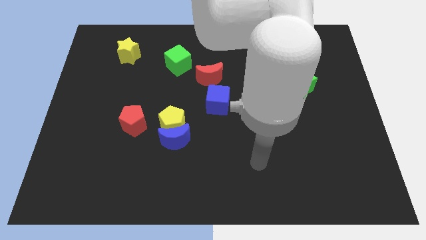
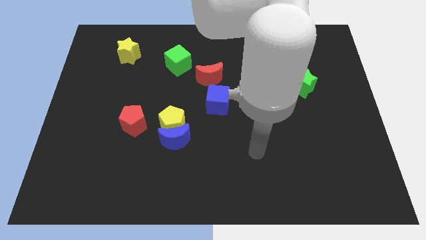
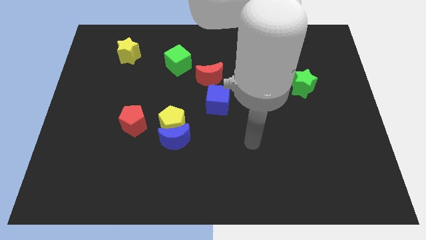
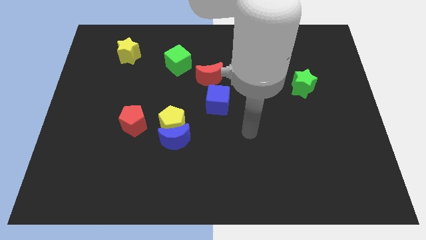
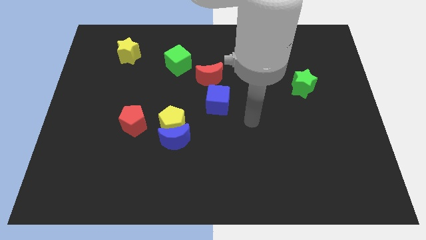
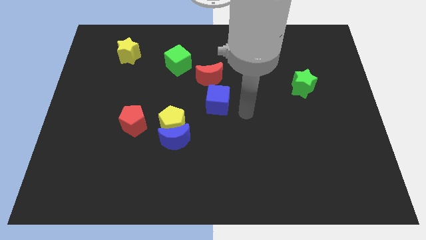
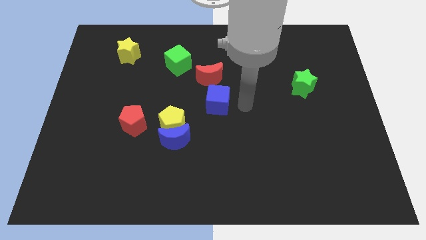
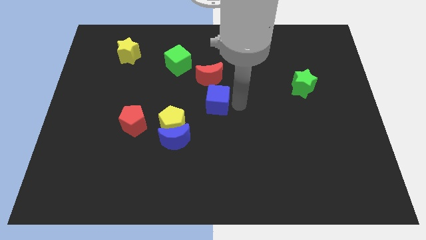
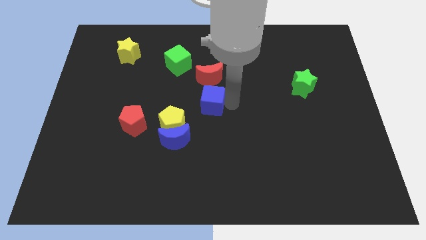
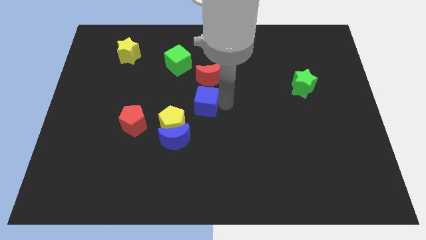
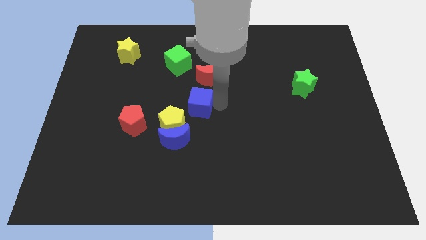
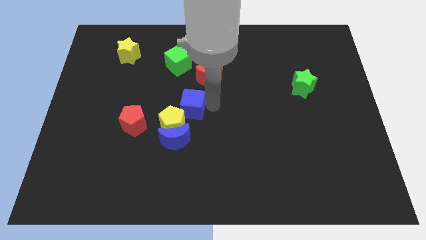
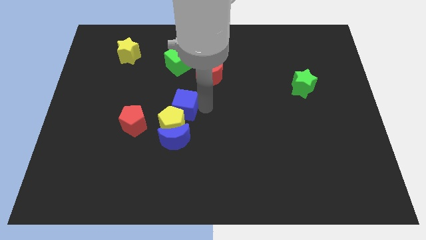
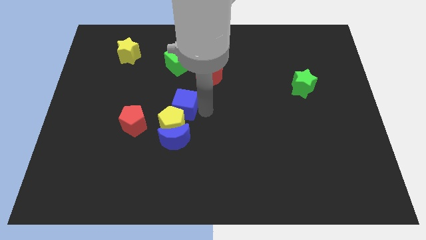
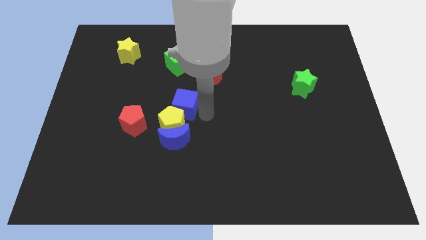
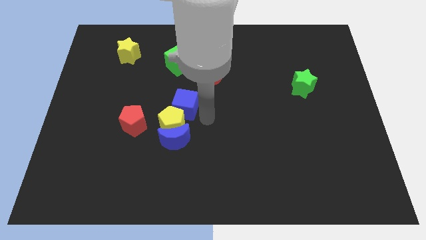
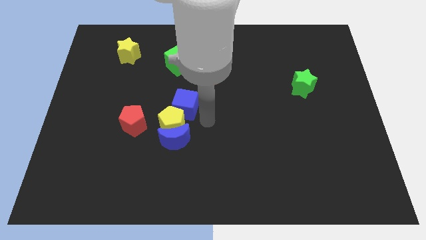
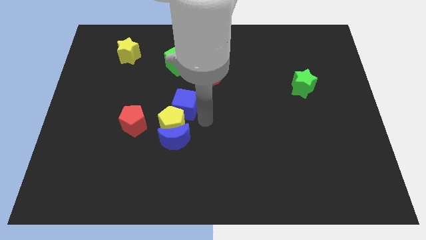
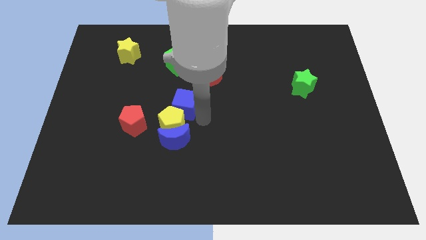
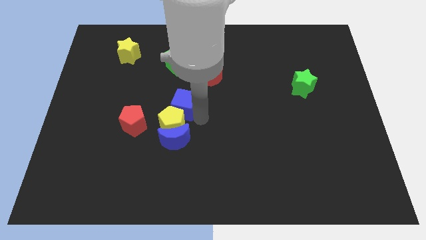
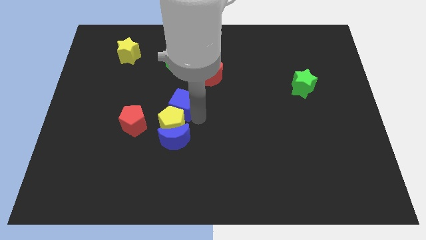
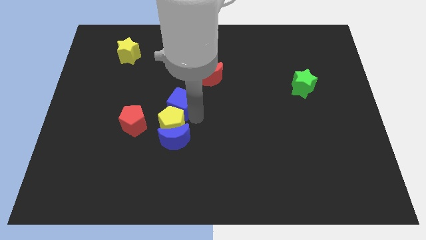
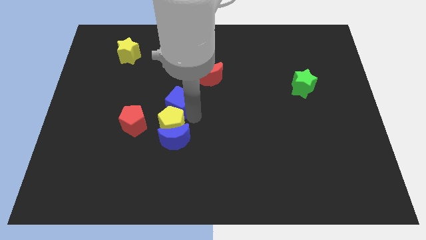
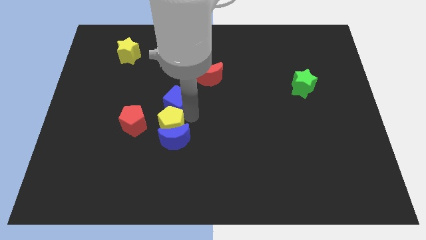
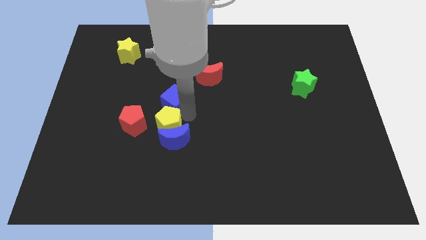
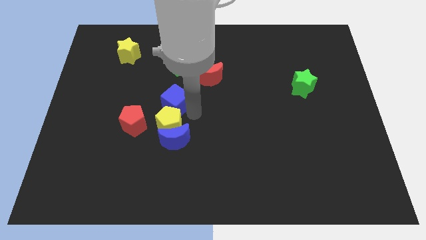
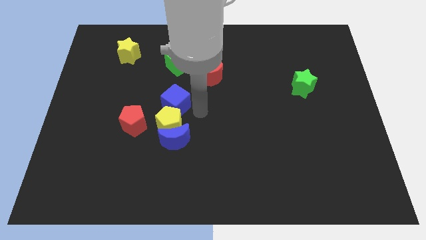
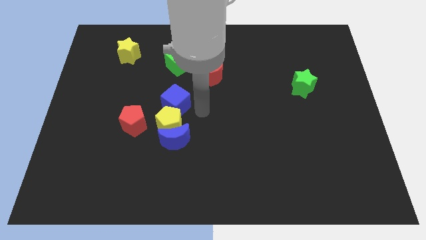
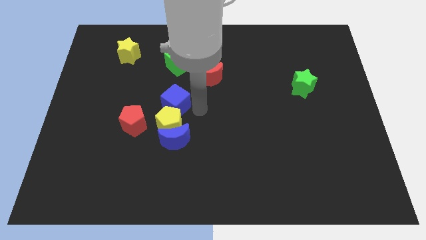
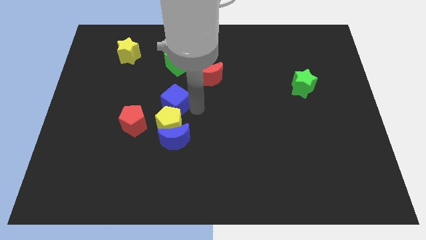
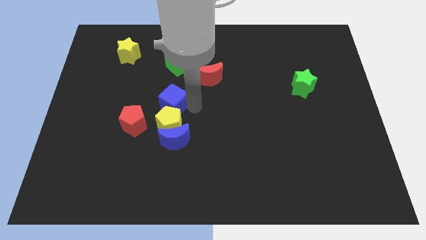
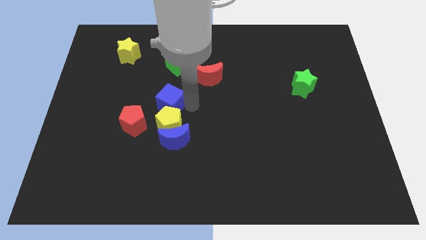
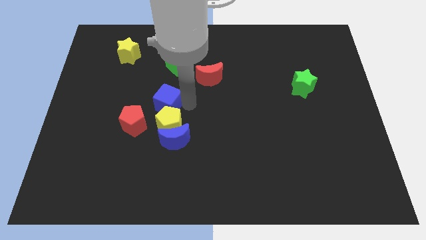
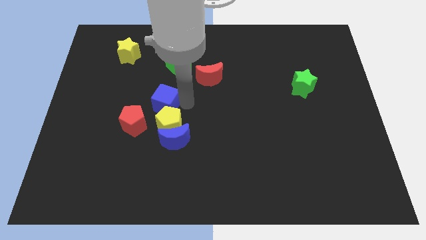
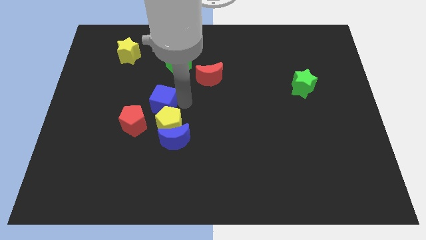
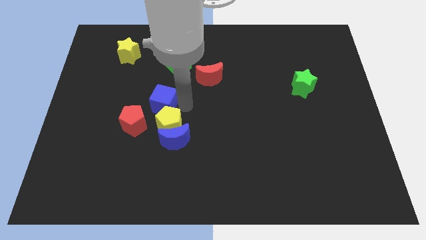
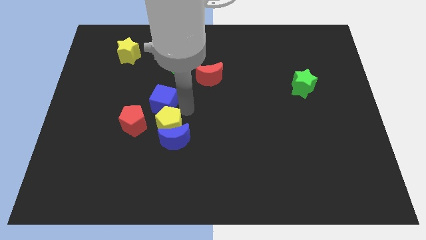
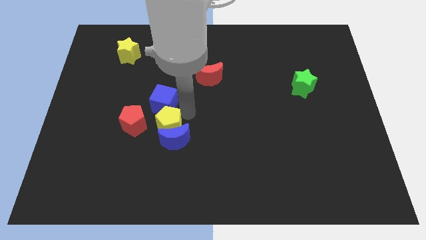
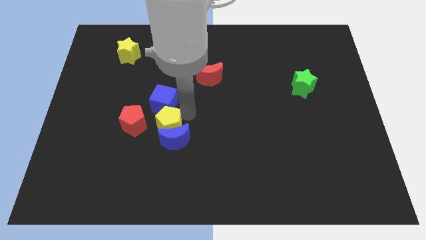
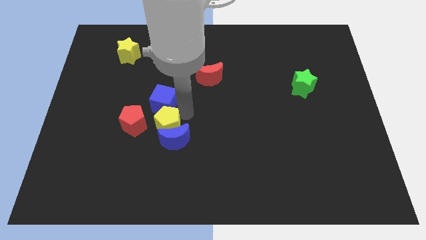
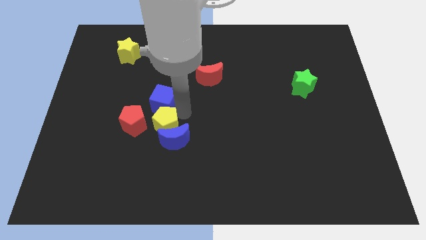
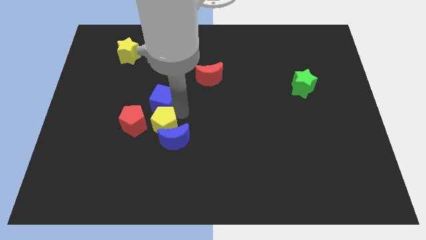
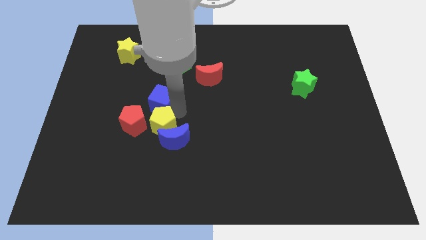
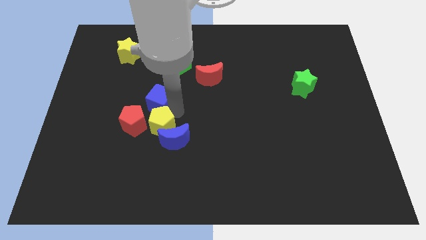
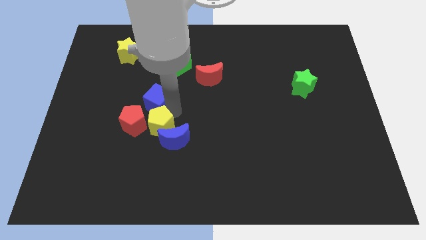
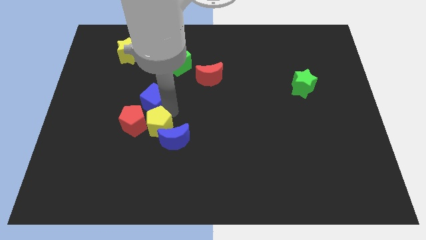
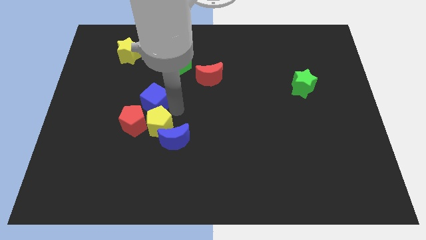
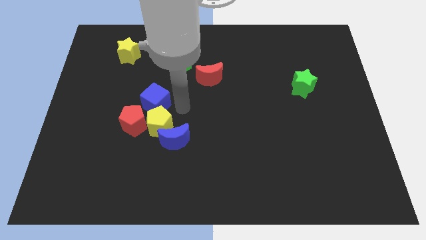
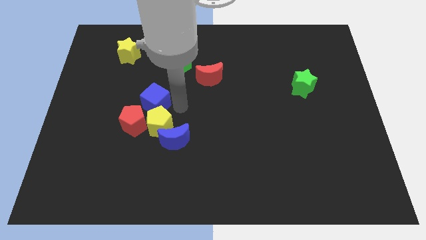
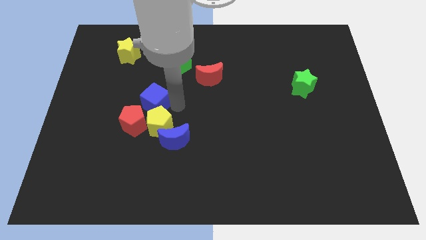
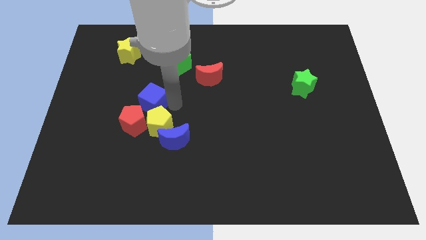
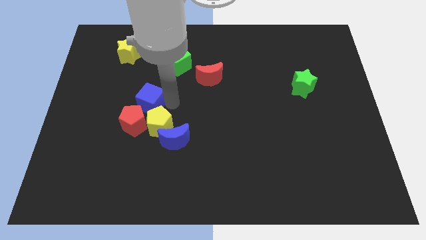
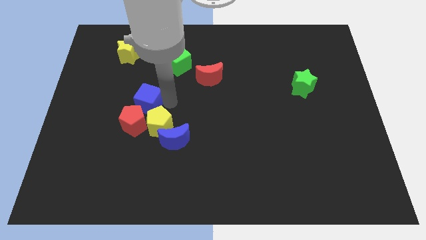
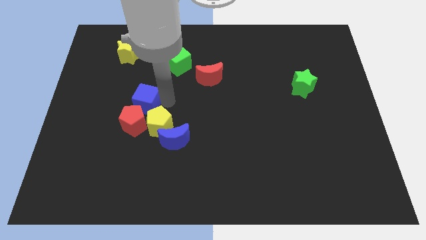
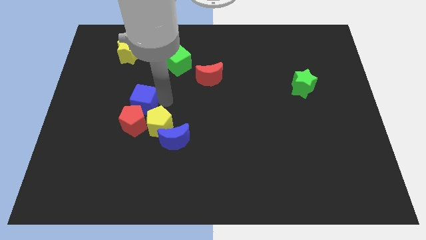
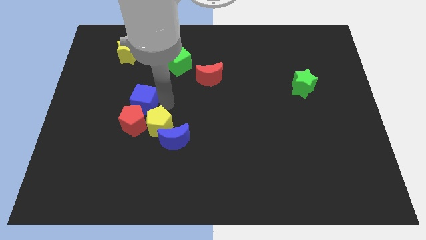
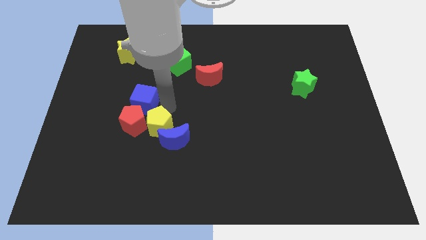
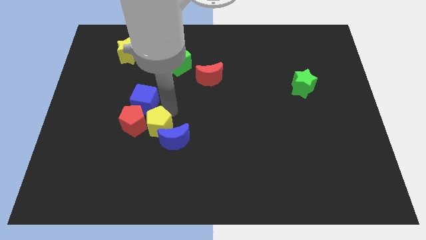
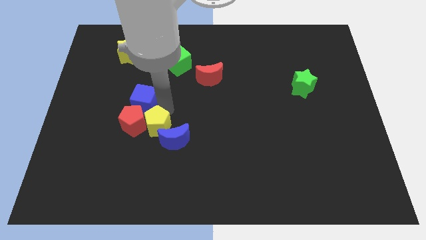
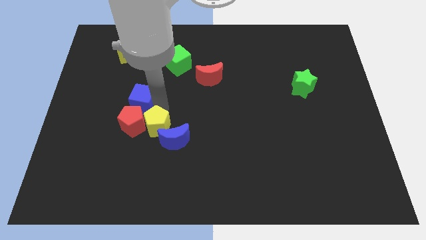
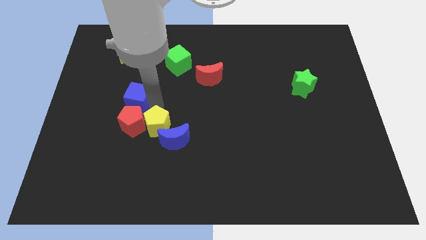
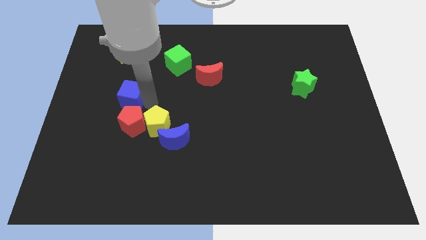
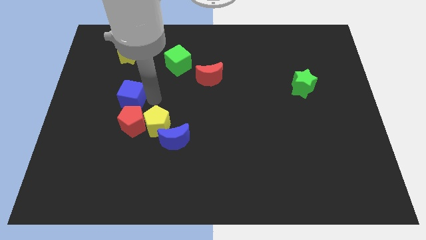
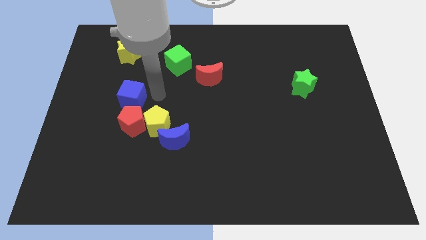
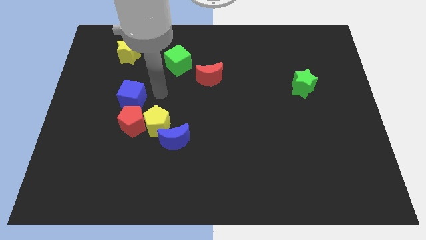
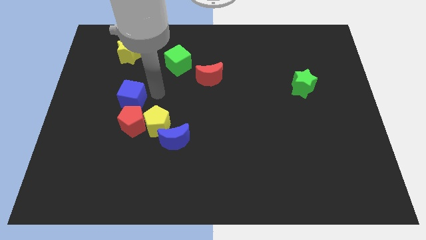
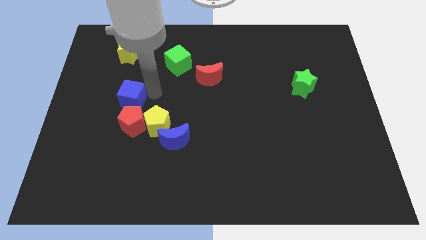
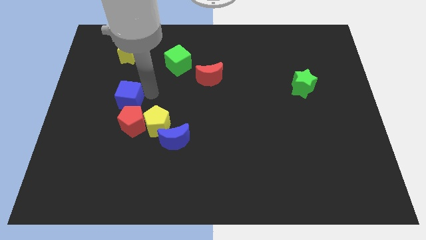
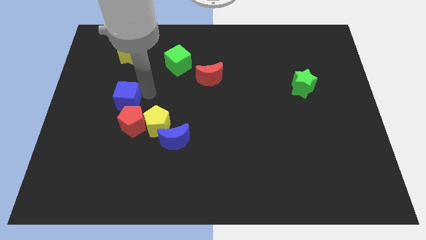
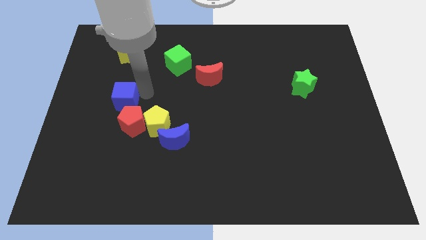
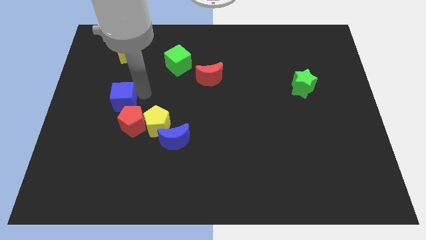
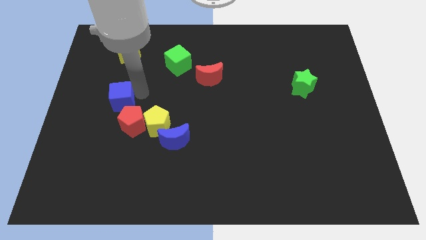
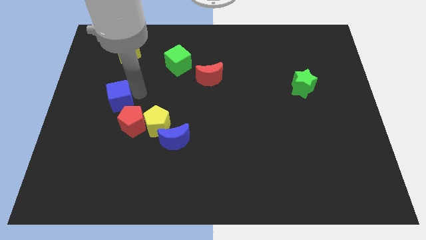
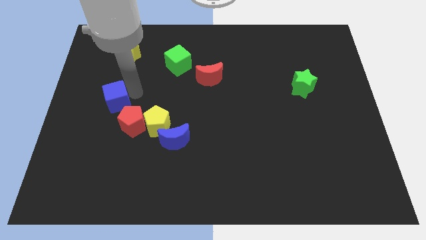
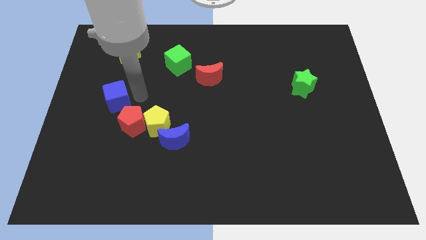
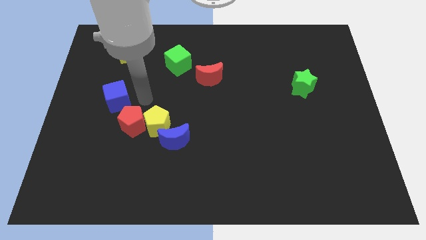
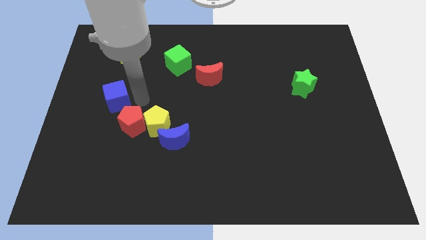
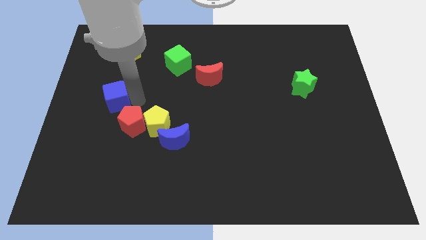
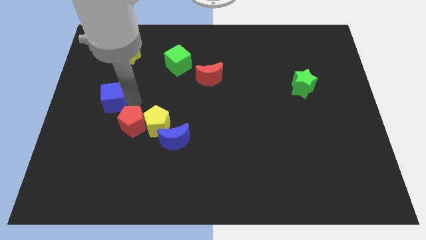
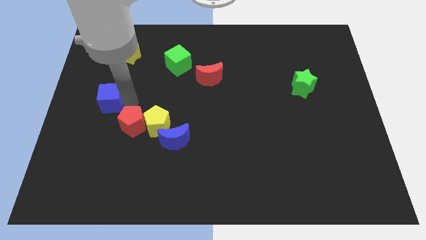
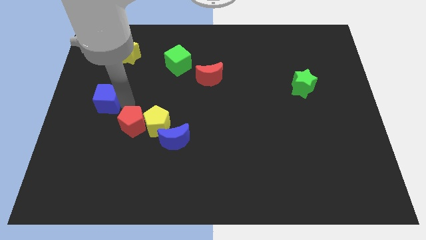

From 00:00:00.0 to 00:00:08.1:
move the blue cube to the left side
